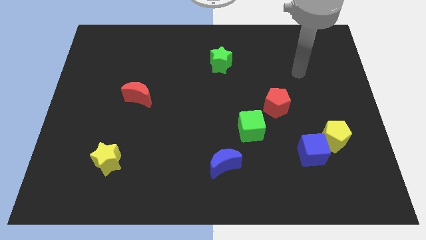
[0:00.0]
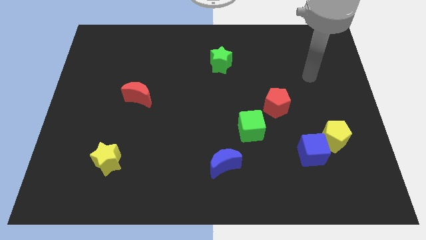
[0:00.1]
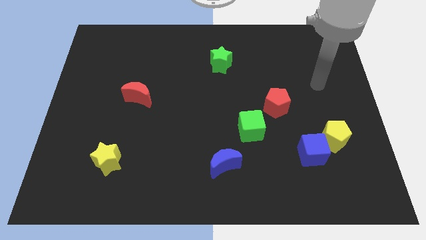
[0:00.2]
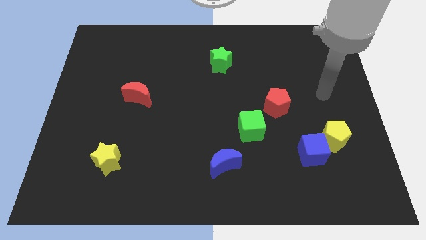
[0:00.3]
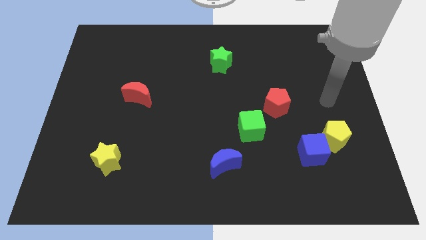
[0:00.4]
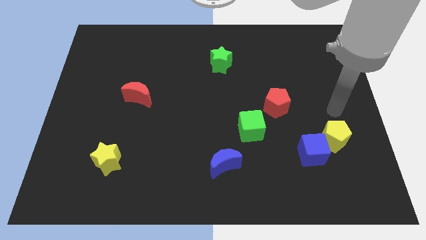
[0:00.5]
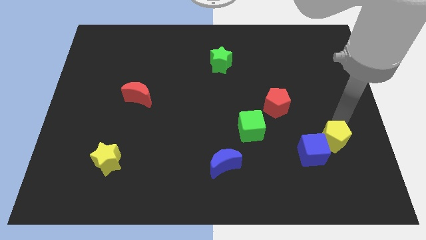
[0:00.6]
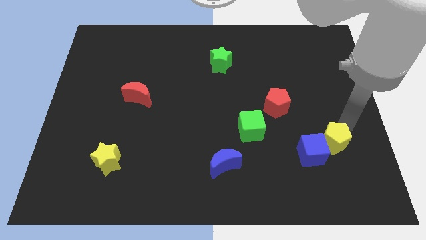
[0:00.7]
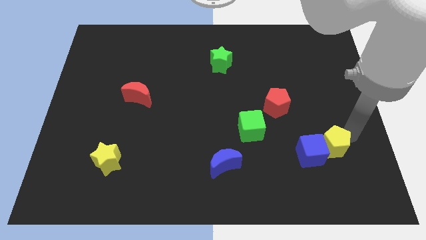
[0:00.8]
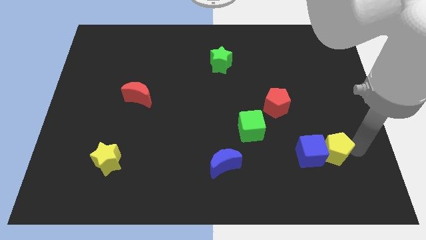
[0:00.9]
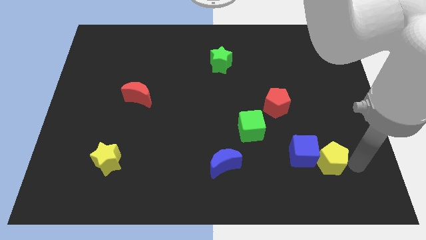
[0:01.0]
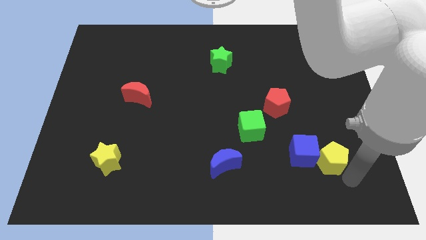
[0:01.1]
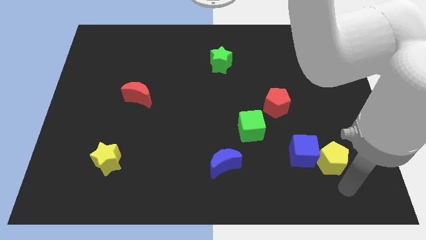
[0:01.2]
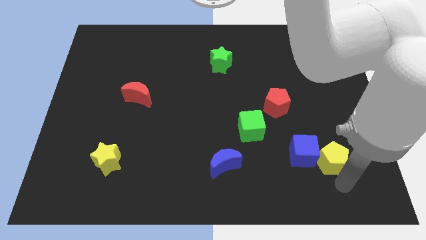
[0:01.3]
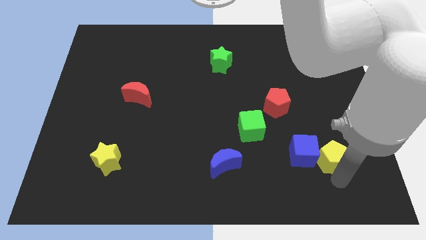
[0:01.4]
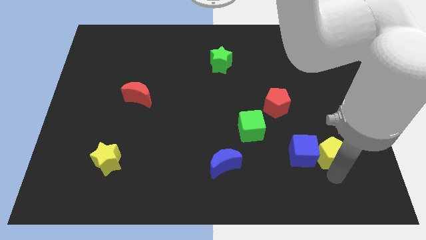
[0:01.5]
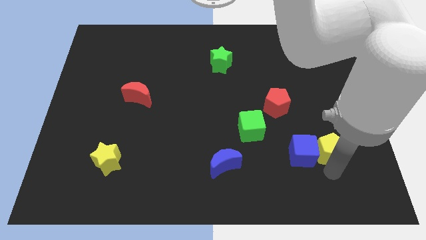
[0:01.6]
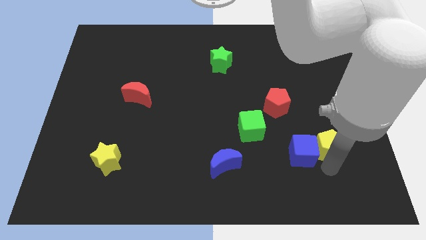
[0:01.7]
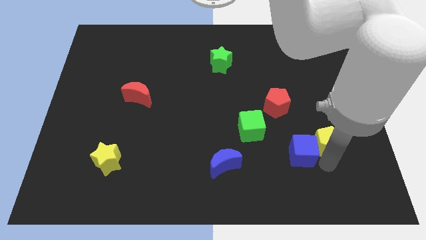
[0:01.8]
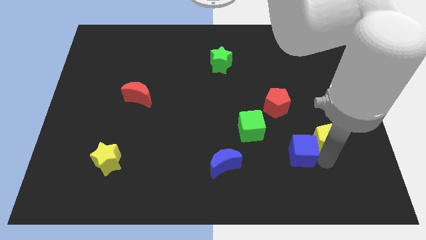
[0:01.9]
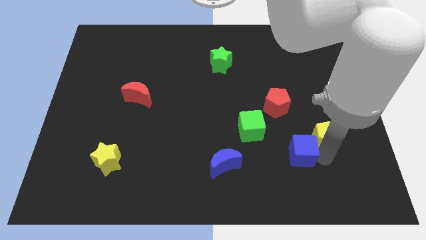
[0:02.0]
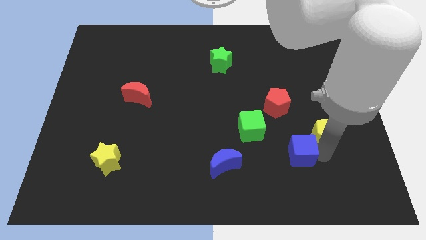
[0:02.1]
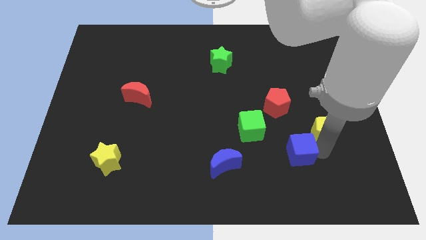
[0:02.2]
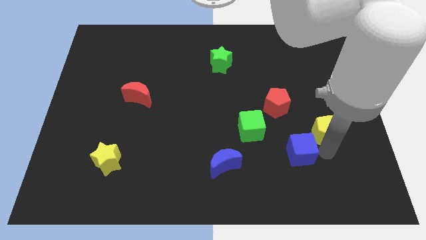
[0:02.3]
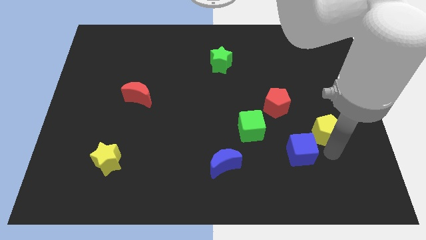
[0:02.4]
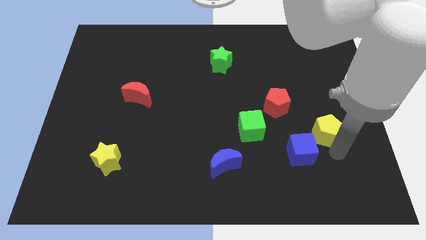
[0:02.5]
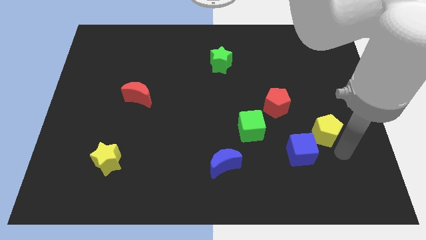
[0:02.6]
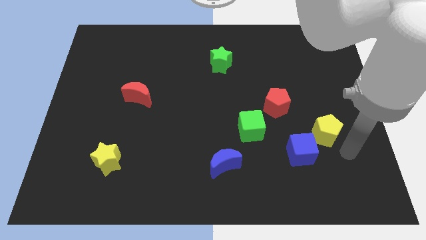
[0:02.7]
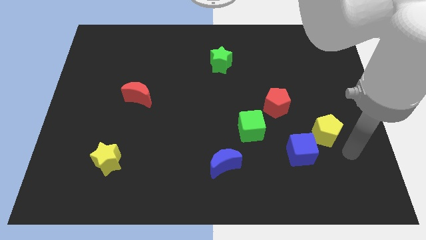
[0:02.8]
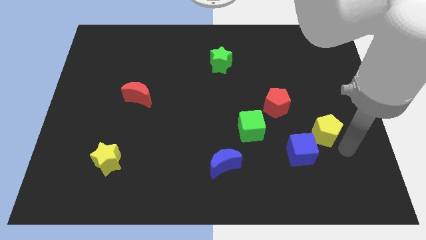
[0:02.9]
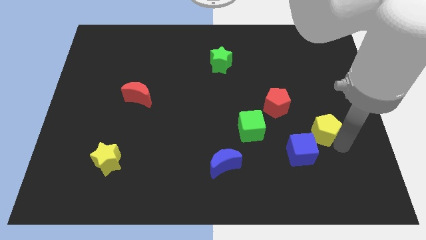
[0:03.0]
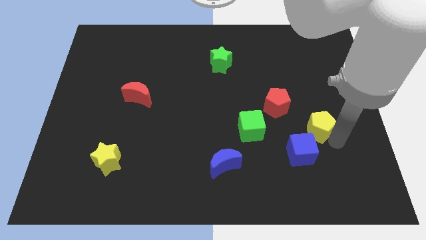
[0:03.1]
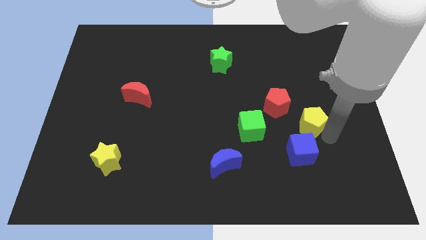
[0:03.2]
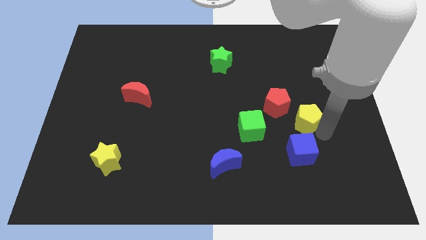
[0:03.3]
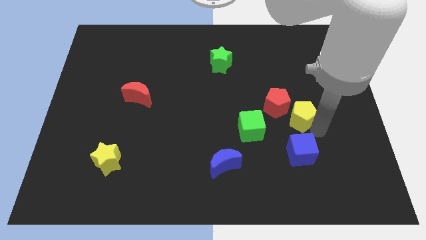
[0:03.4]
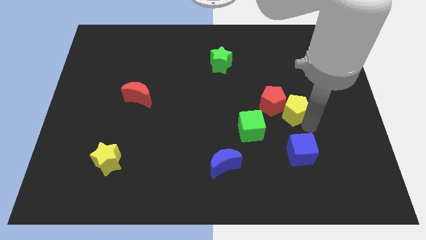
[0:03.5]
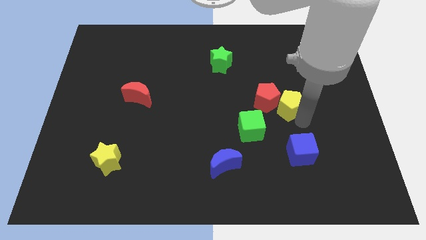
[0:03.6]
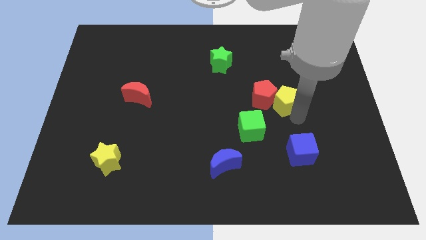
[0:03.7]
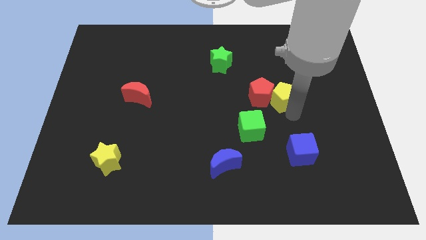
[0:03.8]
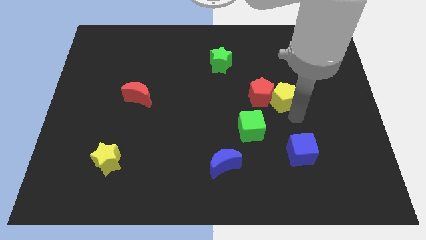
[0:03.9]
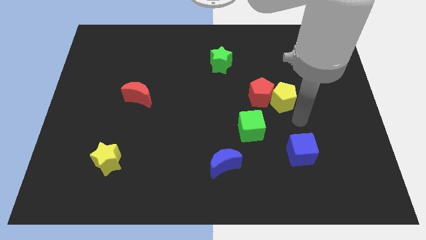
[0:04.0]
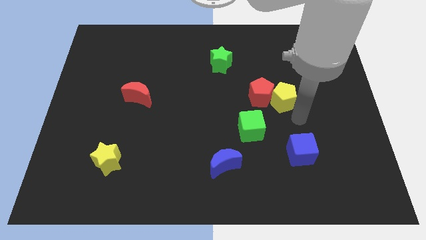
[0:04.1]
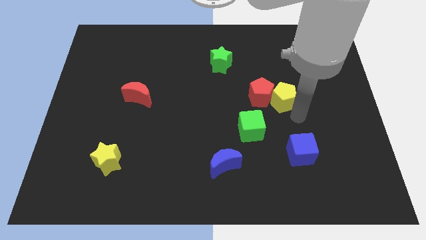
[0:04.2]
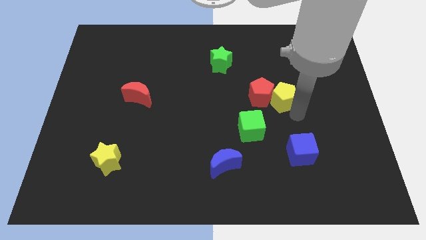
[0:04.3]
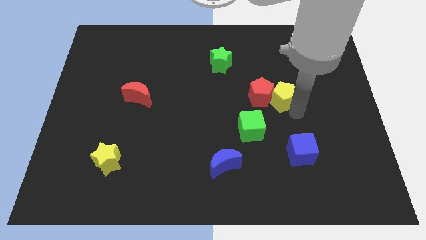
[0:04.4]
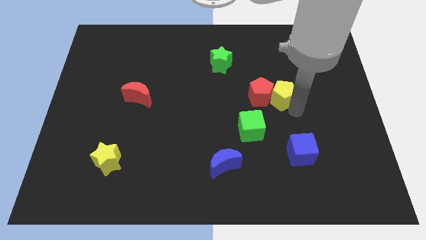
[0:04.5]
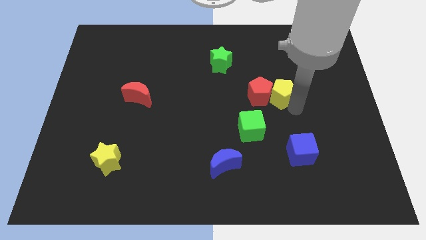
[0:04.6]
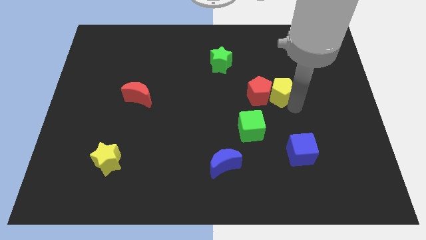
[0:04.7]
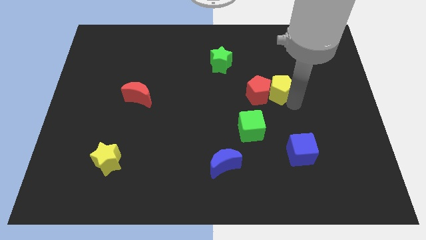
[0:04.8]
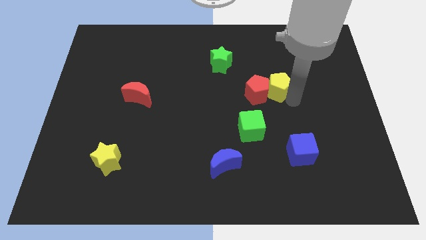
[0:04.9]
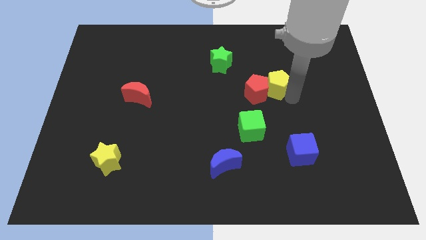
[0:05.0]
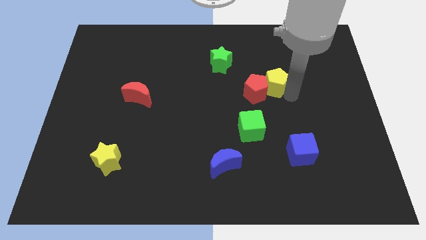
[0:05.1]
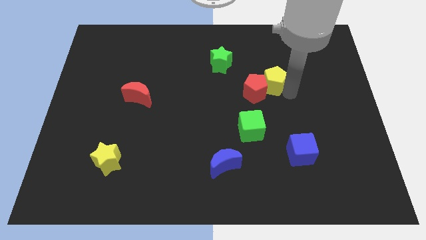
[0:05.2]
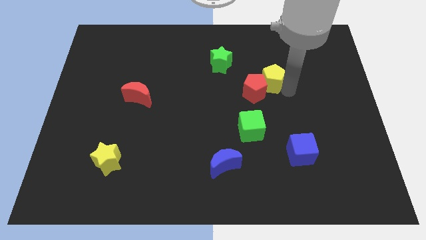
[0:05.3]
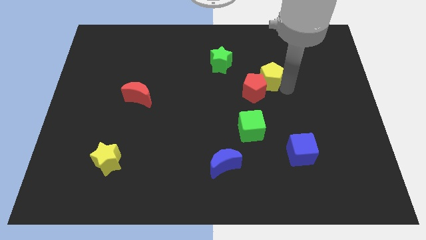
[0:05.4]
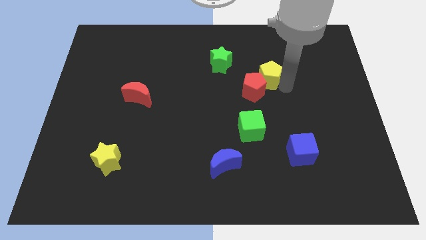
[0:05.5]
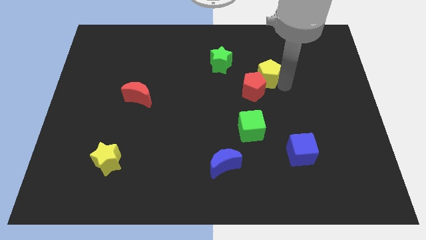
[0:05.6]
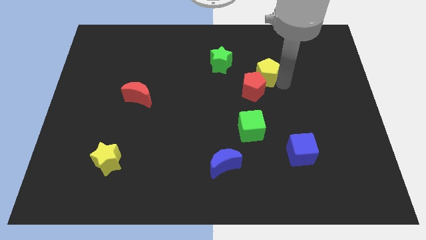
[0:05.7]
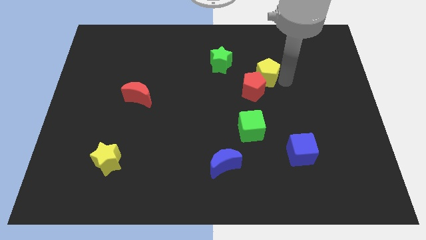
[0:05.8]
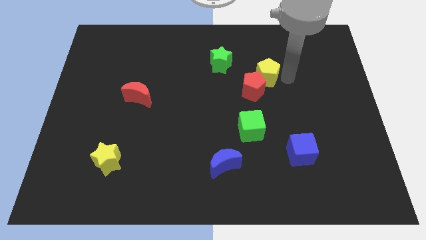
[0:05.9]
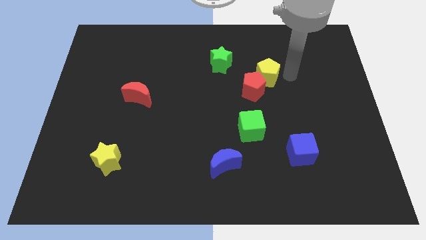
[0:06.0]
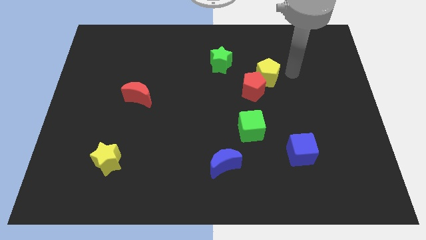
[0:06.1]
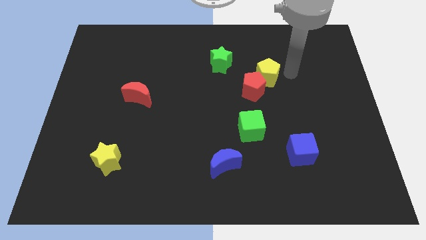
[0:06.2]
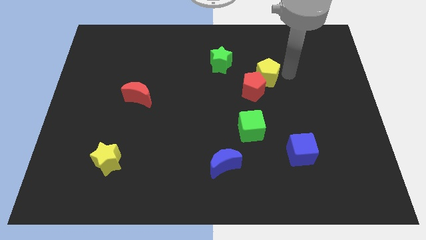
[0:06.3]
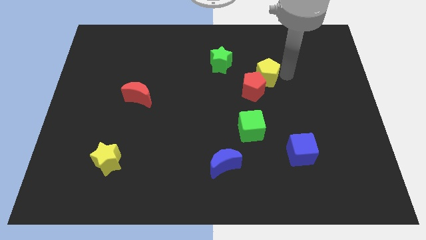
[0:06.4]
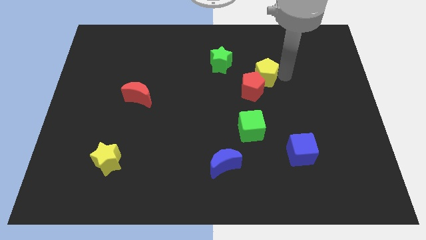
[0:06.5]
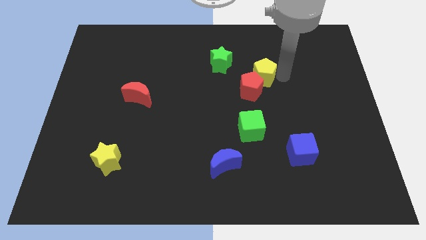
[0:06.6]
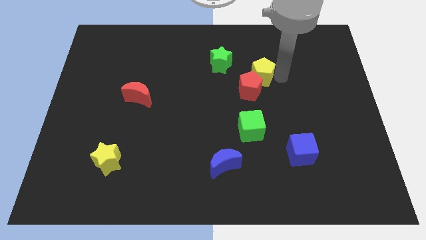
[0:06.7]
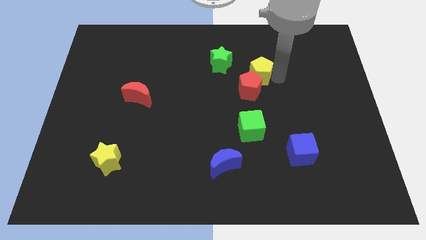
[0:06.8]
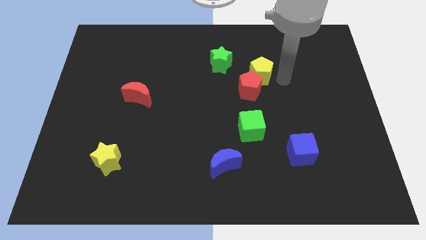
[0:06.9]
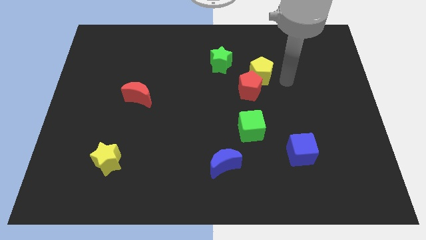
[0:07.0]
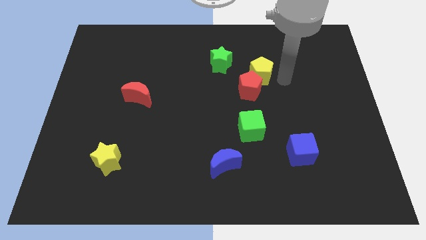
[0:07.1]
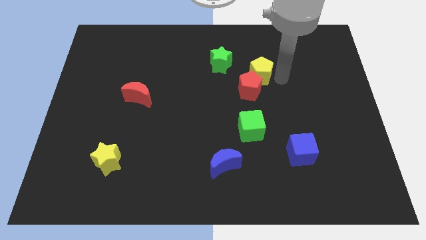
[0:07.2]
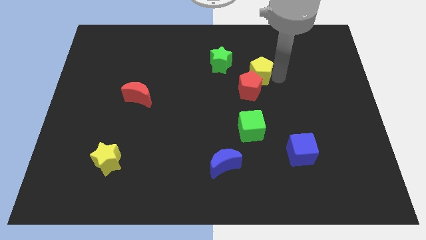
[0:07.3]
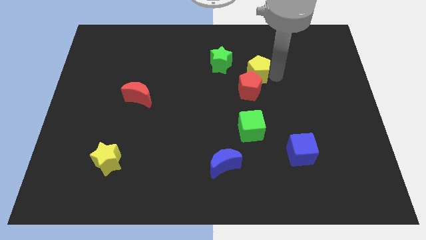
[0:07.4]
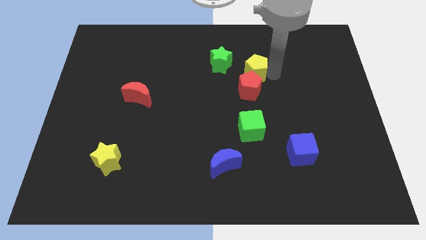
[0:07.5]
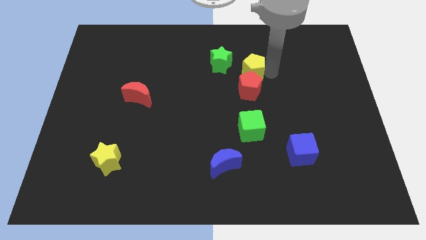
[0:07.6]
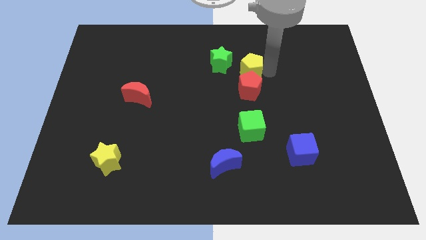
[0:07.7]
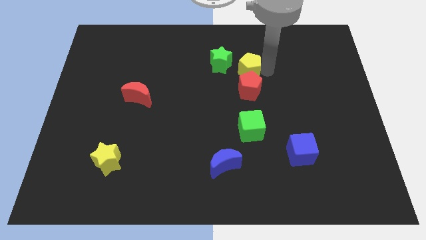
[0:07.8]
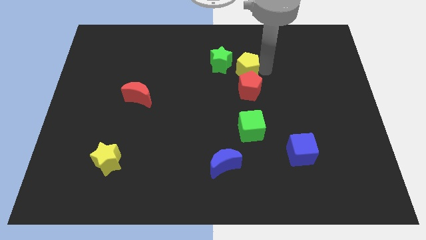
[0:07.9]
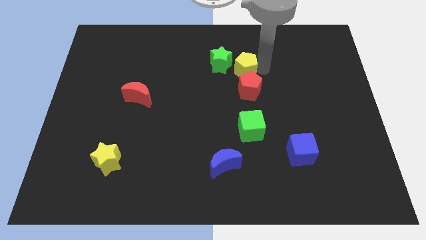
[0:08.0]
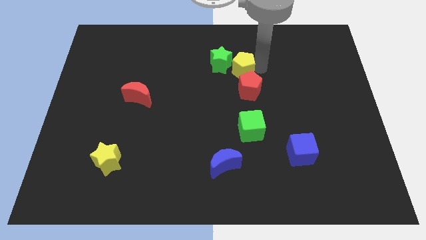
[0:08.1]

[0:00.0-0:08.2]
slide the yellow pentagon next to the green star
